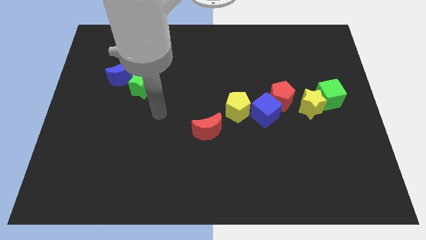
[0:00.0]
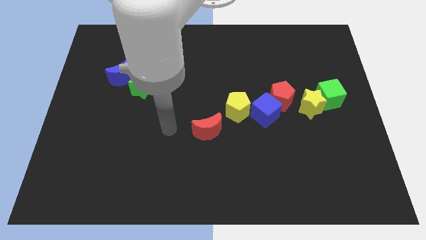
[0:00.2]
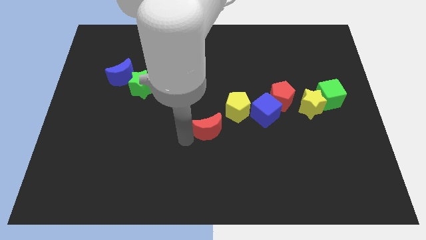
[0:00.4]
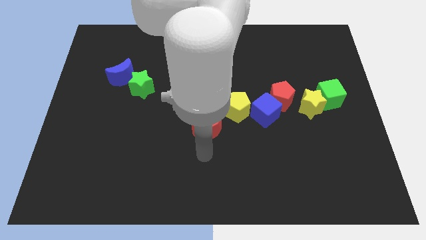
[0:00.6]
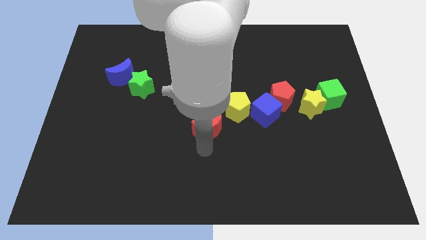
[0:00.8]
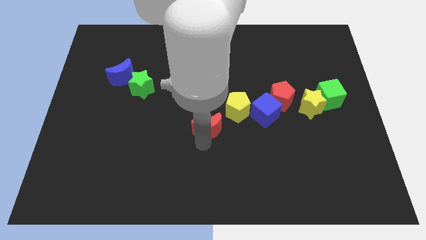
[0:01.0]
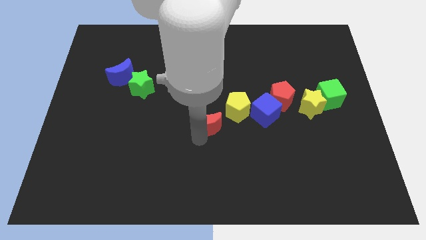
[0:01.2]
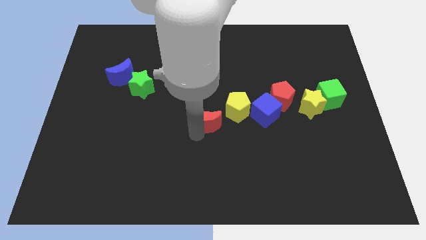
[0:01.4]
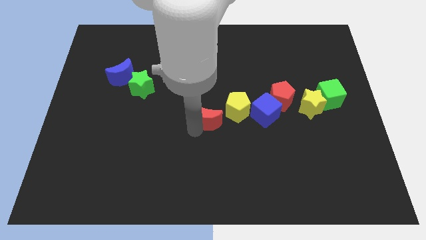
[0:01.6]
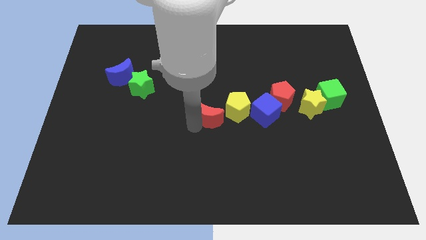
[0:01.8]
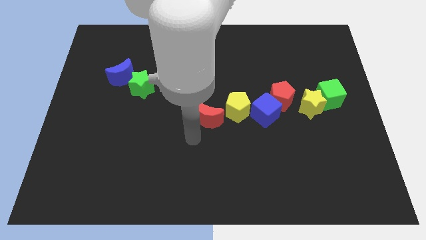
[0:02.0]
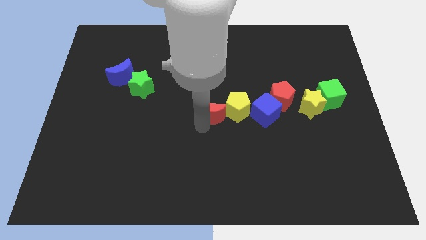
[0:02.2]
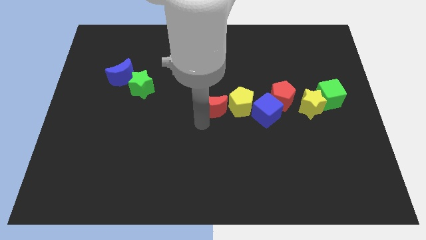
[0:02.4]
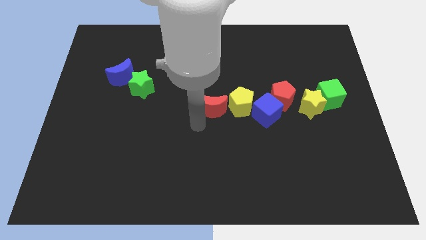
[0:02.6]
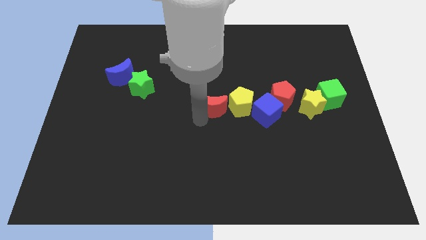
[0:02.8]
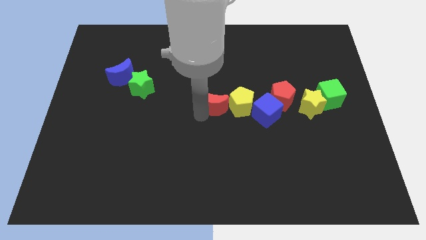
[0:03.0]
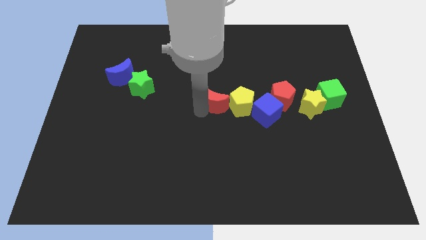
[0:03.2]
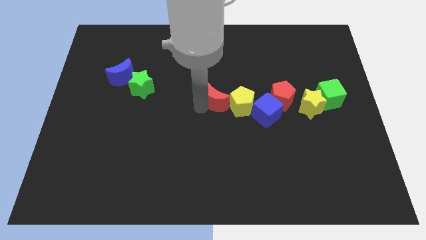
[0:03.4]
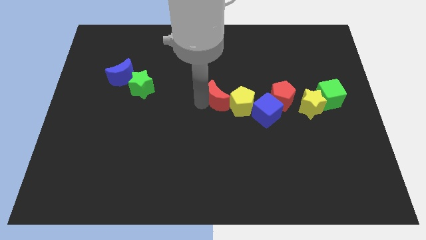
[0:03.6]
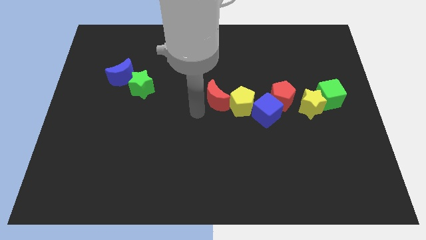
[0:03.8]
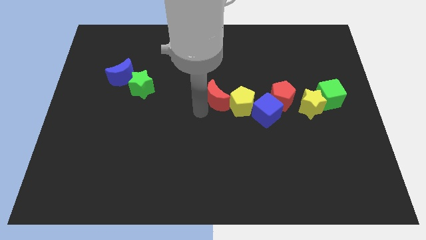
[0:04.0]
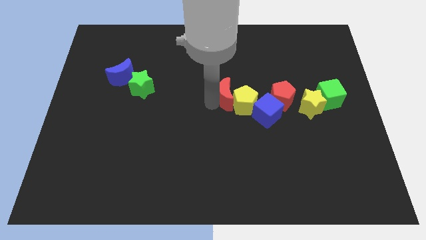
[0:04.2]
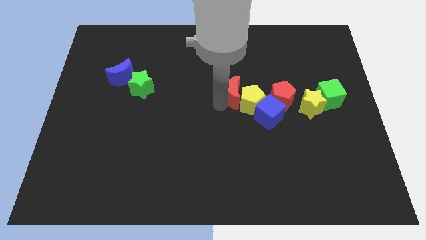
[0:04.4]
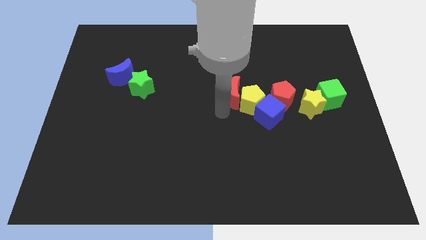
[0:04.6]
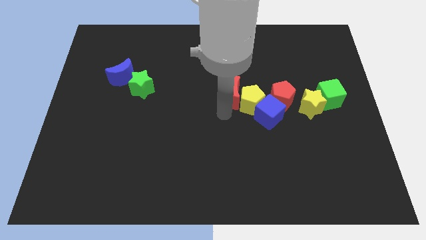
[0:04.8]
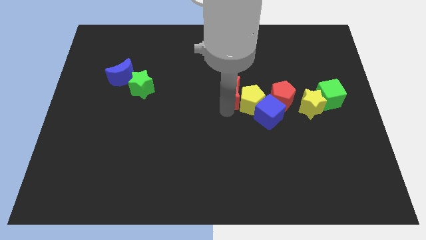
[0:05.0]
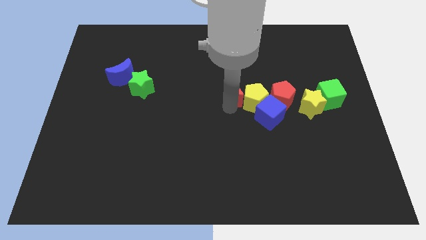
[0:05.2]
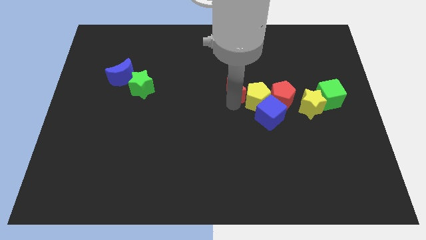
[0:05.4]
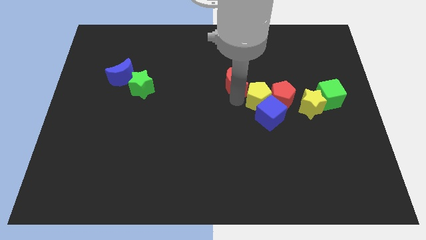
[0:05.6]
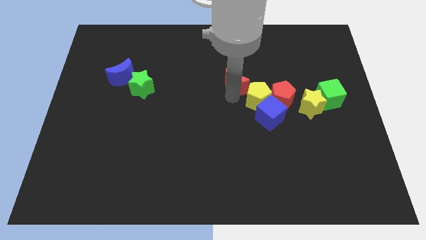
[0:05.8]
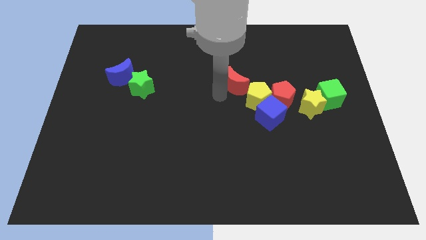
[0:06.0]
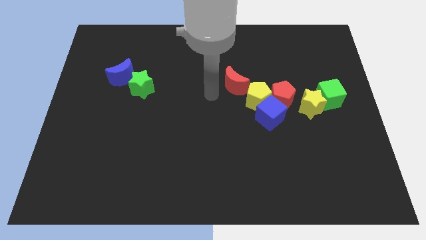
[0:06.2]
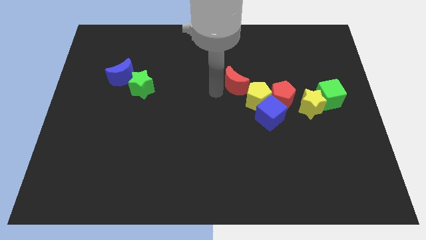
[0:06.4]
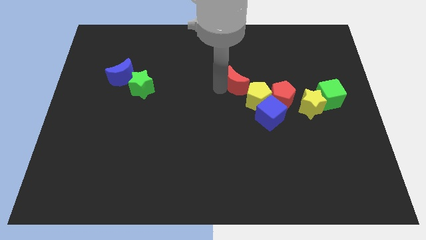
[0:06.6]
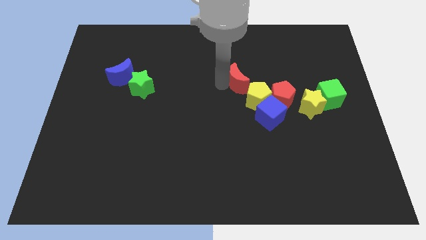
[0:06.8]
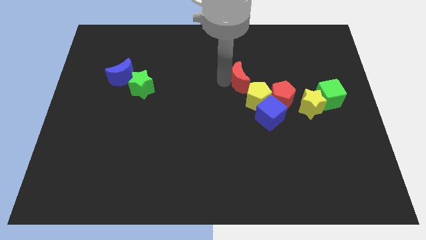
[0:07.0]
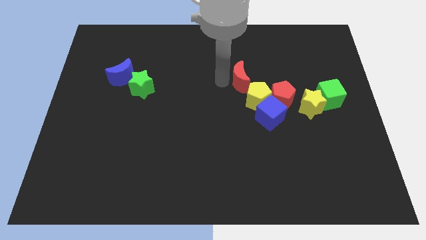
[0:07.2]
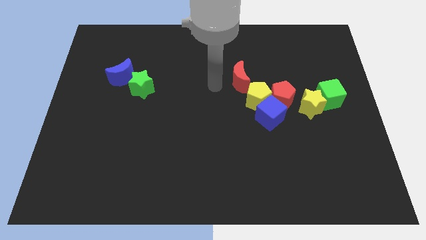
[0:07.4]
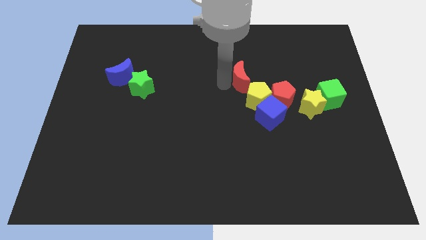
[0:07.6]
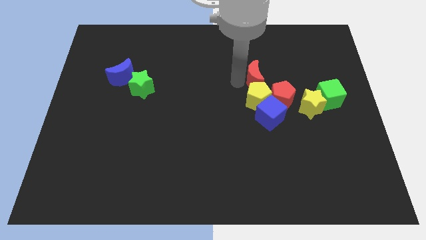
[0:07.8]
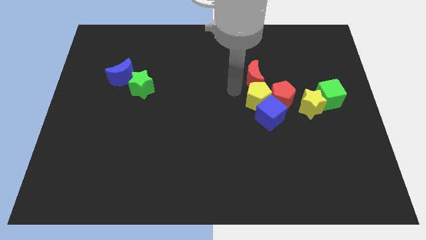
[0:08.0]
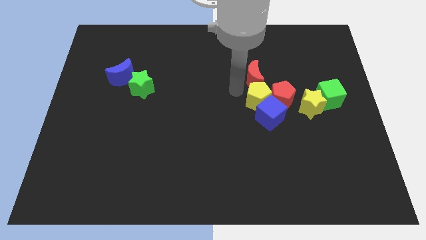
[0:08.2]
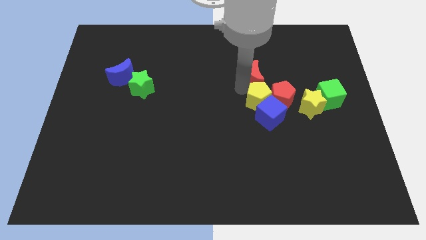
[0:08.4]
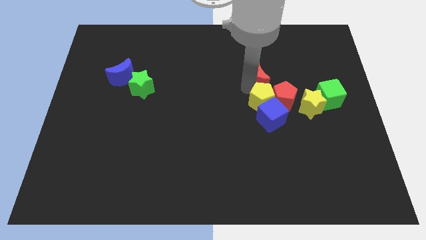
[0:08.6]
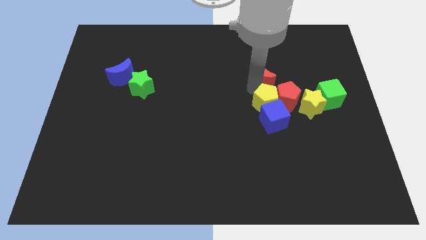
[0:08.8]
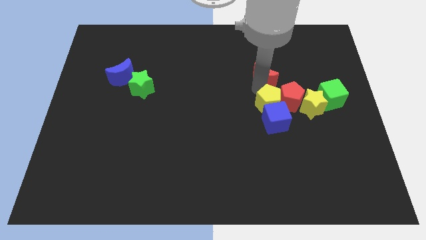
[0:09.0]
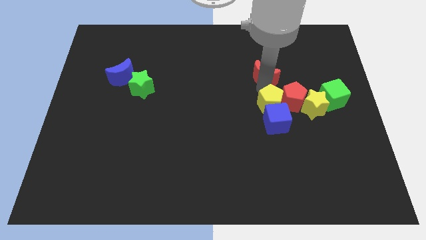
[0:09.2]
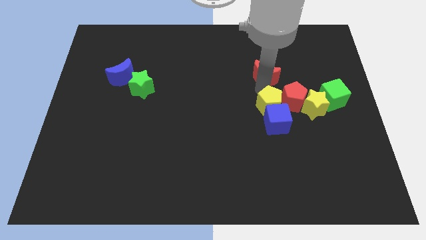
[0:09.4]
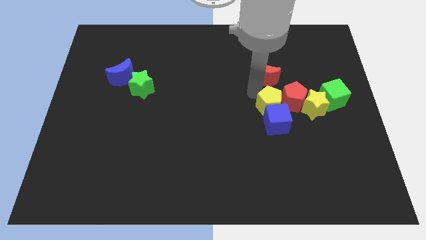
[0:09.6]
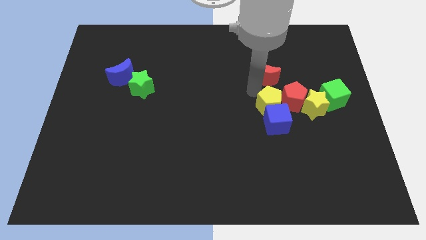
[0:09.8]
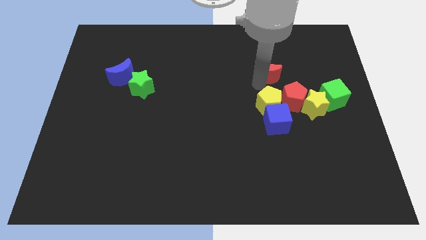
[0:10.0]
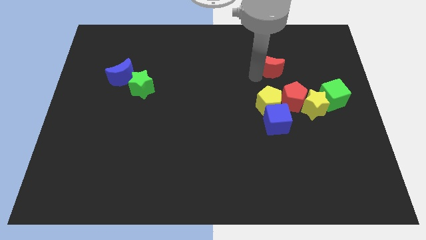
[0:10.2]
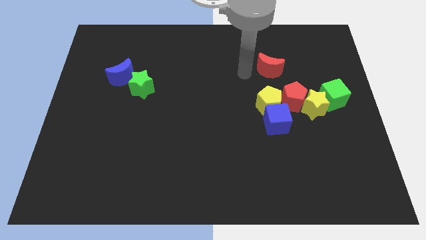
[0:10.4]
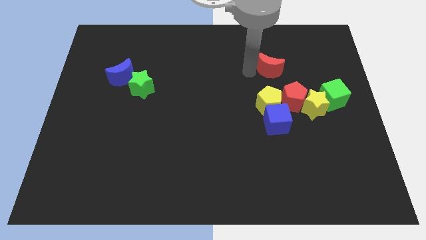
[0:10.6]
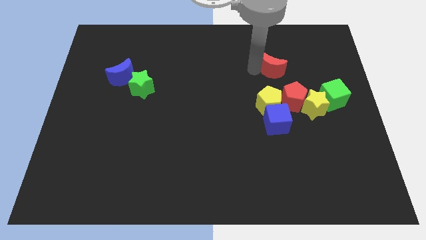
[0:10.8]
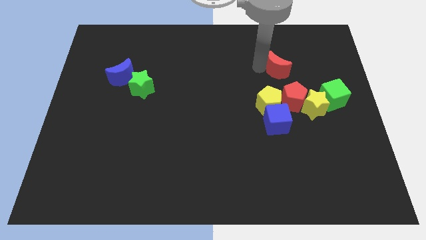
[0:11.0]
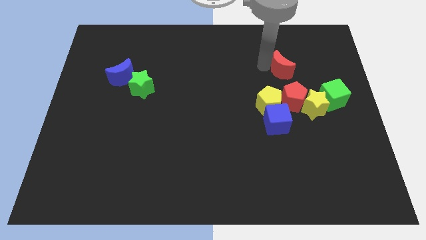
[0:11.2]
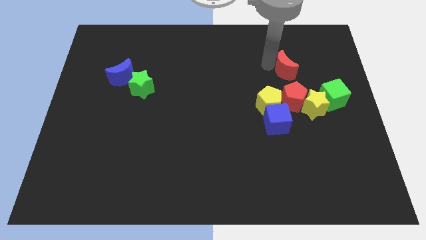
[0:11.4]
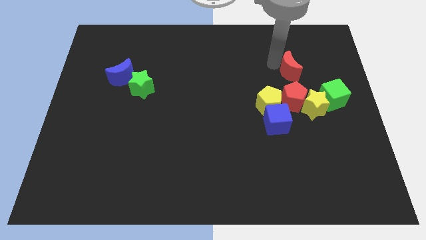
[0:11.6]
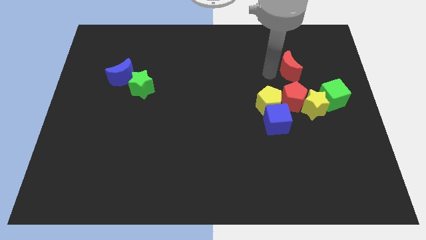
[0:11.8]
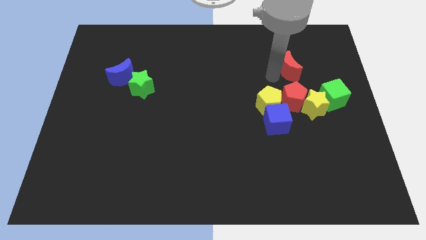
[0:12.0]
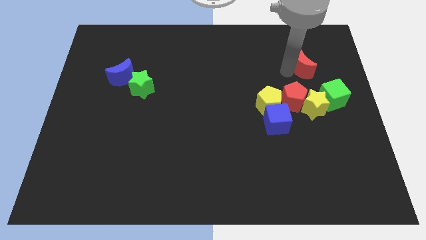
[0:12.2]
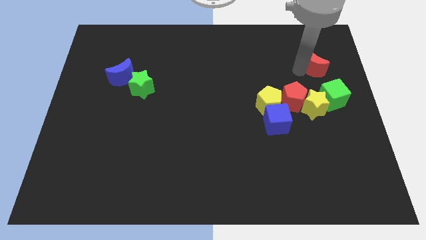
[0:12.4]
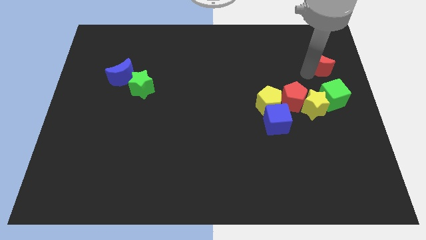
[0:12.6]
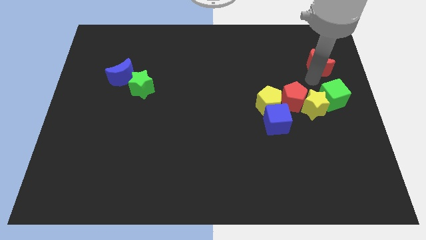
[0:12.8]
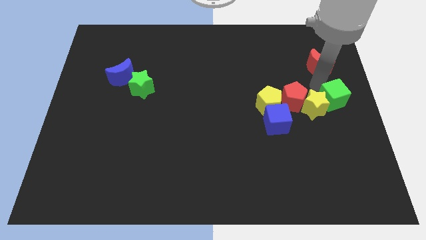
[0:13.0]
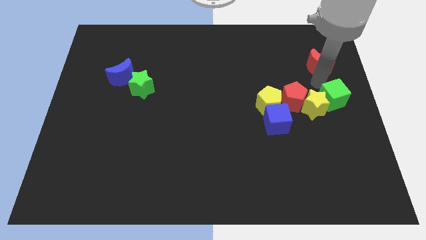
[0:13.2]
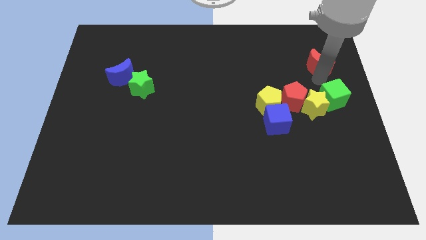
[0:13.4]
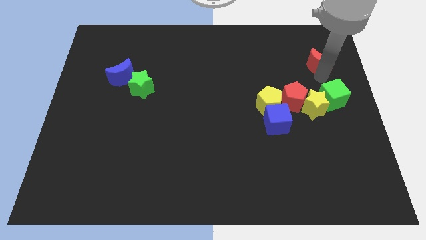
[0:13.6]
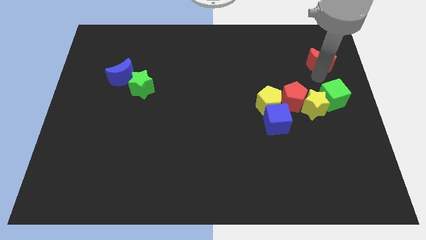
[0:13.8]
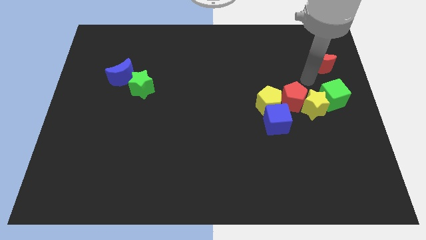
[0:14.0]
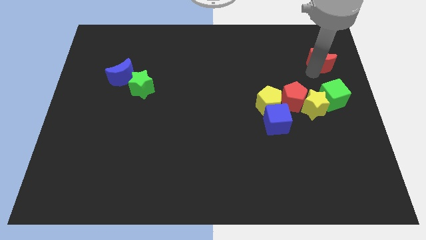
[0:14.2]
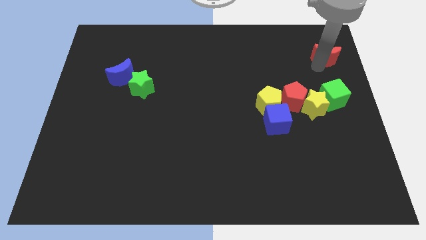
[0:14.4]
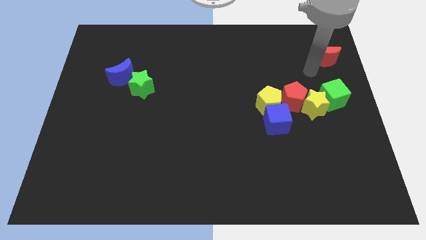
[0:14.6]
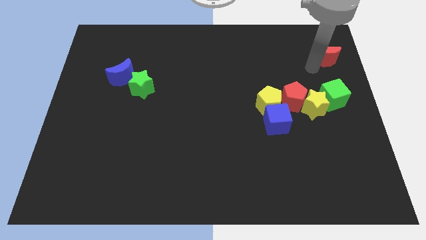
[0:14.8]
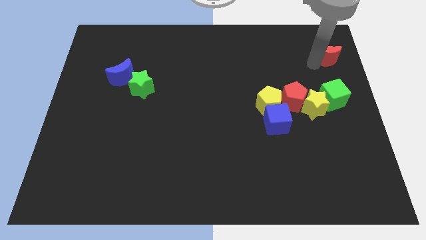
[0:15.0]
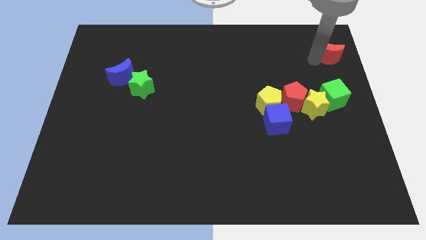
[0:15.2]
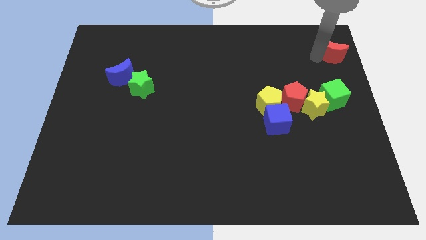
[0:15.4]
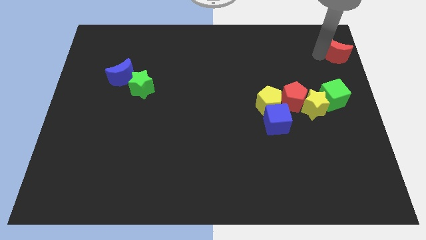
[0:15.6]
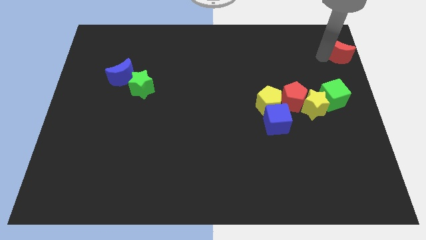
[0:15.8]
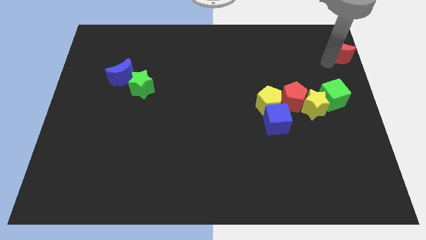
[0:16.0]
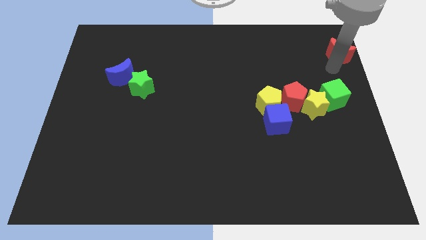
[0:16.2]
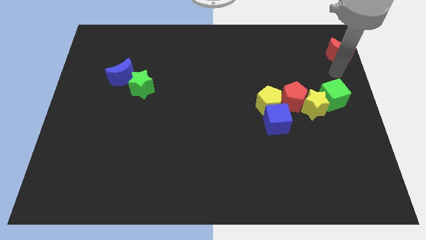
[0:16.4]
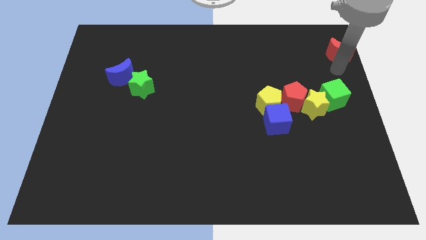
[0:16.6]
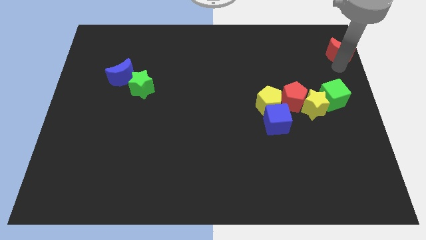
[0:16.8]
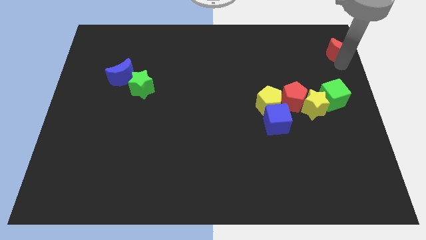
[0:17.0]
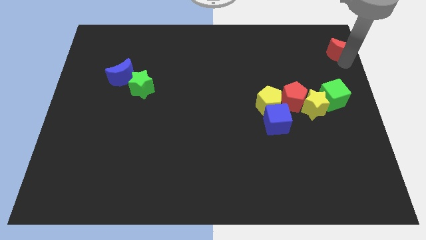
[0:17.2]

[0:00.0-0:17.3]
slide the red moon to the top right corner
